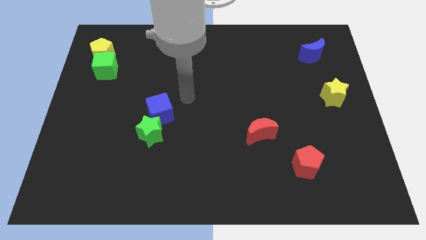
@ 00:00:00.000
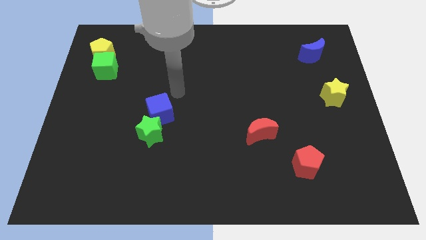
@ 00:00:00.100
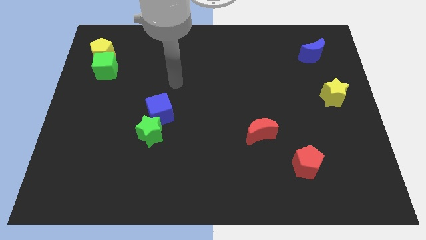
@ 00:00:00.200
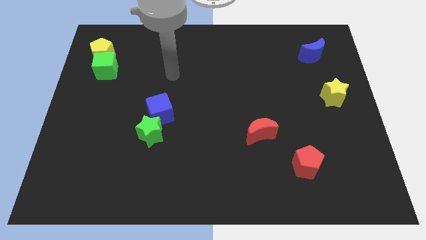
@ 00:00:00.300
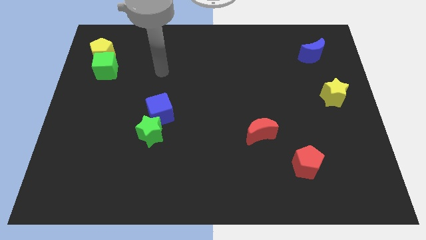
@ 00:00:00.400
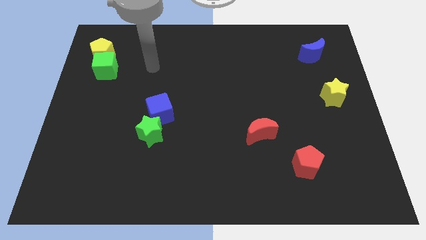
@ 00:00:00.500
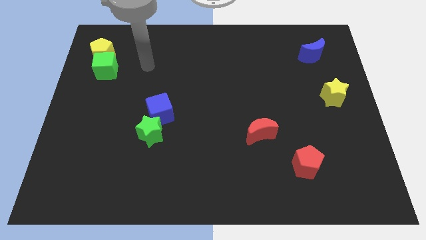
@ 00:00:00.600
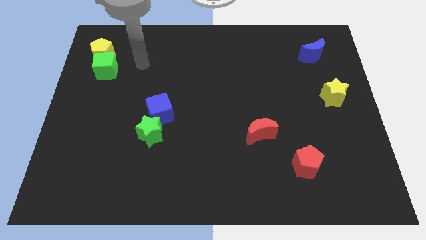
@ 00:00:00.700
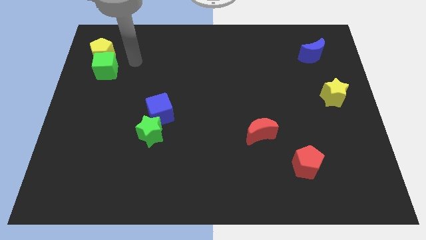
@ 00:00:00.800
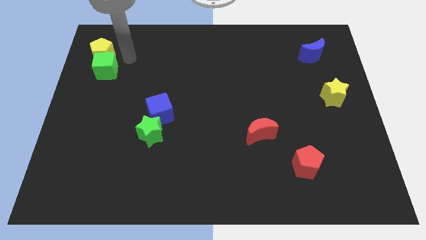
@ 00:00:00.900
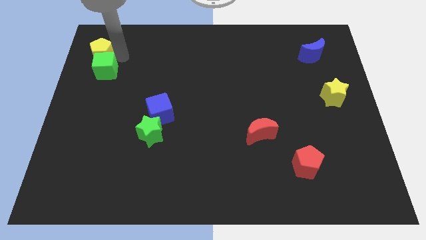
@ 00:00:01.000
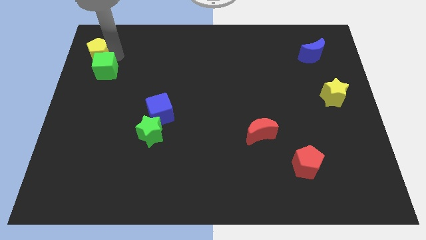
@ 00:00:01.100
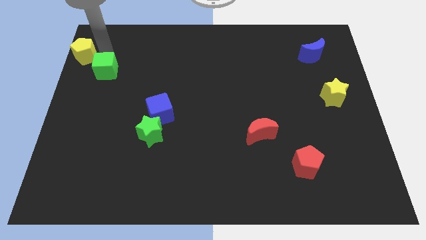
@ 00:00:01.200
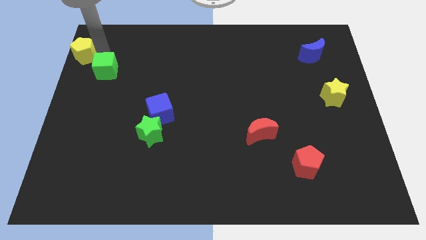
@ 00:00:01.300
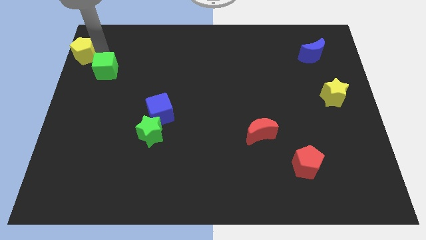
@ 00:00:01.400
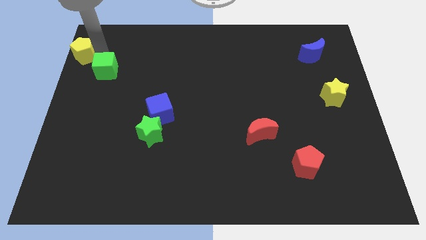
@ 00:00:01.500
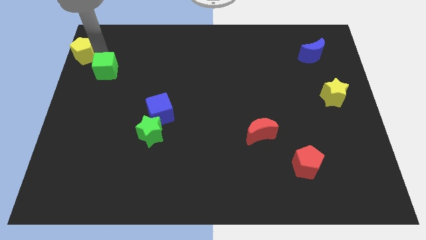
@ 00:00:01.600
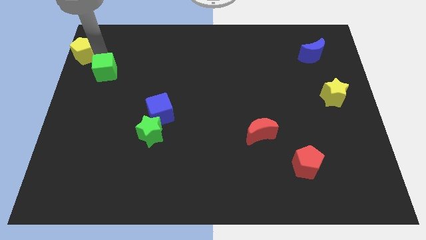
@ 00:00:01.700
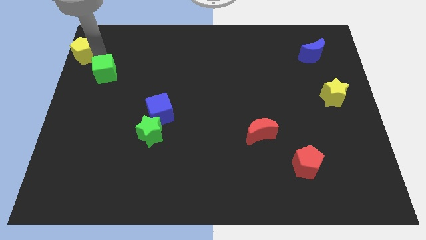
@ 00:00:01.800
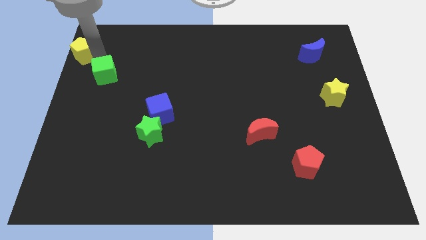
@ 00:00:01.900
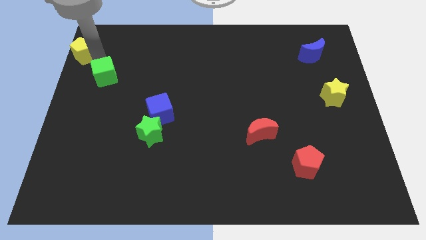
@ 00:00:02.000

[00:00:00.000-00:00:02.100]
move the green cube away from the yellow pentagon

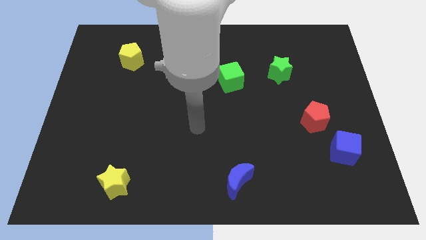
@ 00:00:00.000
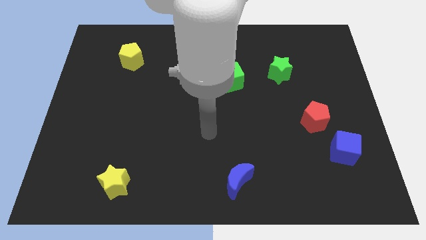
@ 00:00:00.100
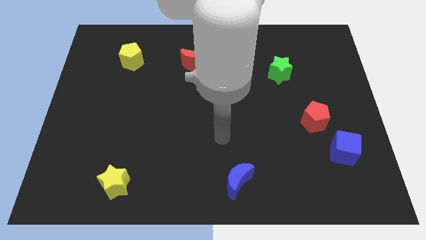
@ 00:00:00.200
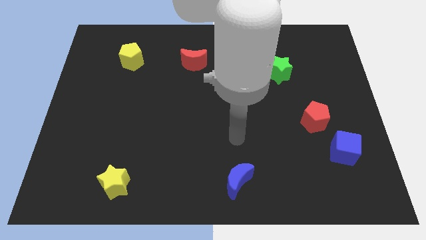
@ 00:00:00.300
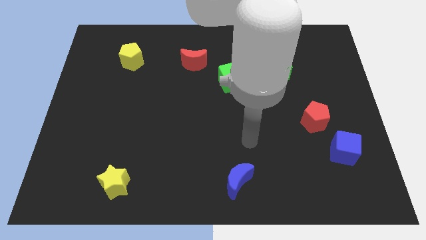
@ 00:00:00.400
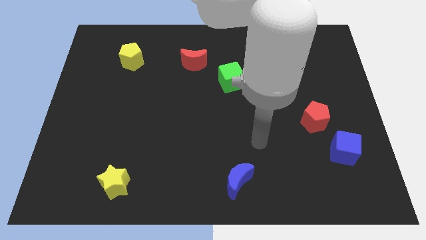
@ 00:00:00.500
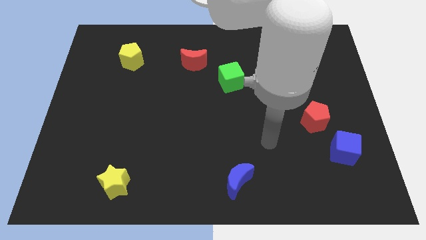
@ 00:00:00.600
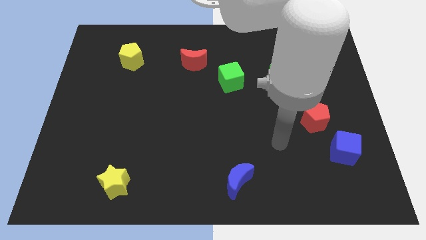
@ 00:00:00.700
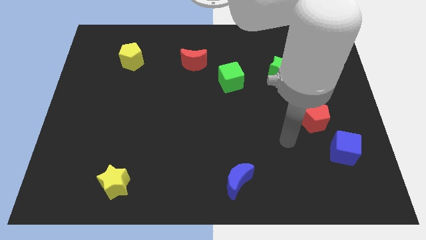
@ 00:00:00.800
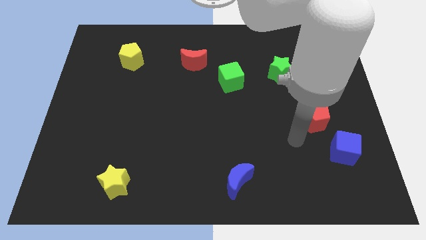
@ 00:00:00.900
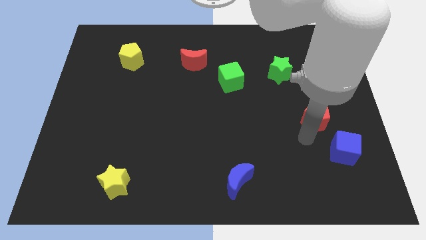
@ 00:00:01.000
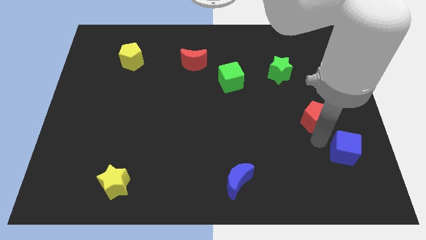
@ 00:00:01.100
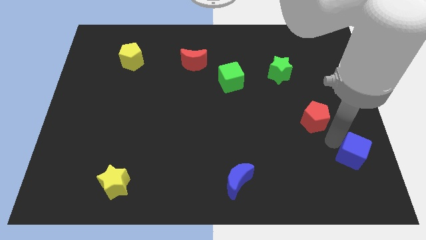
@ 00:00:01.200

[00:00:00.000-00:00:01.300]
move the red pentagon away from the blue cube

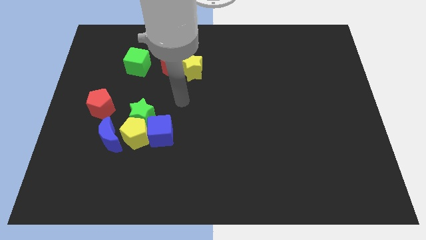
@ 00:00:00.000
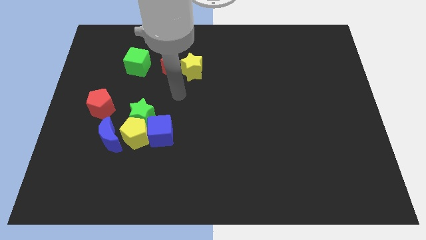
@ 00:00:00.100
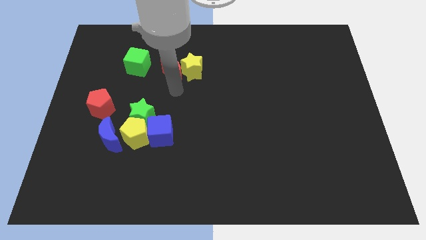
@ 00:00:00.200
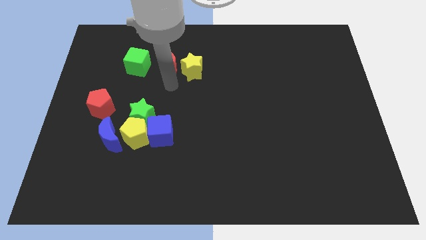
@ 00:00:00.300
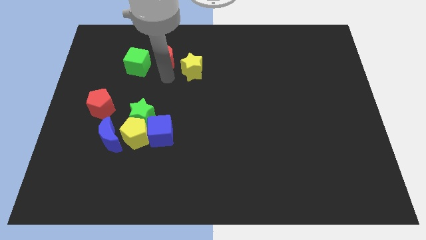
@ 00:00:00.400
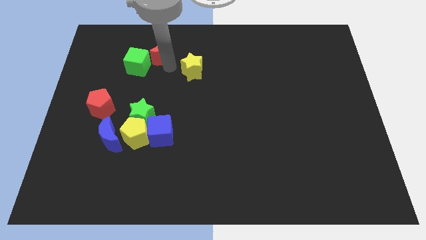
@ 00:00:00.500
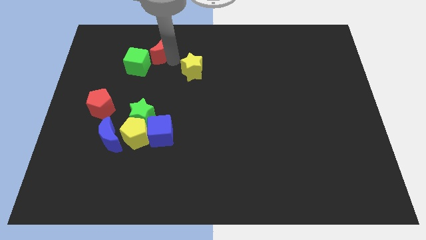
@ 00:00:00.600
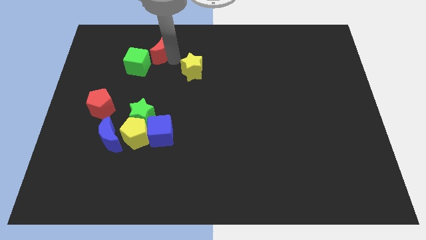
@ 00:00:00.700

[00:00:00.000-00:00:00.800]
separate the yellow star from the red moon

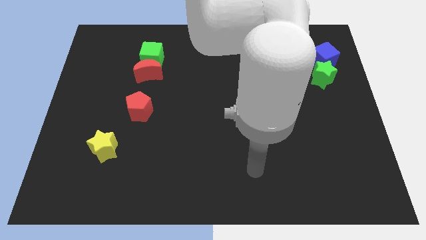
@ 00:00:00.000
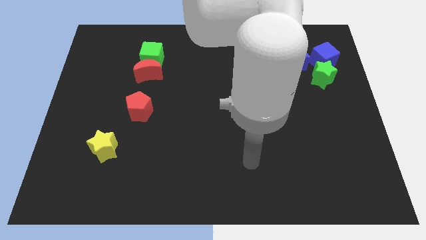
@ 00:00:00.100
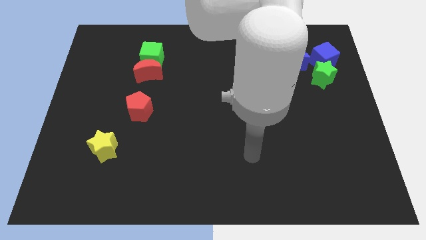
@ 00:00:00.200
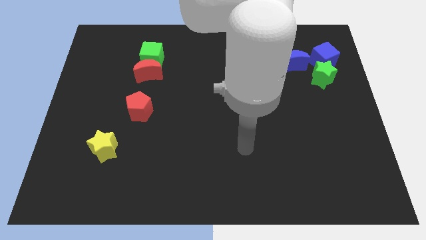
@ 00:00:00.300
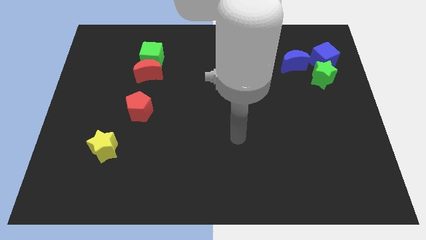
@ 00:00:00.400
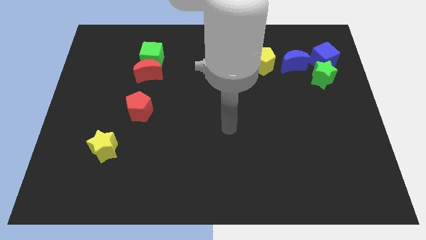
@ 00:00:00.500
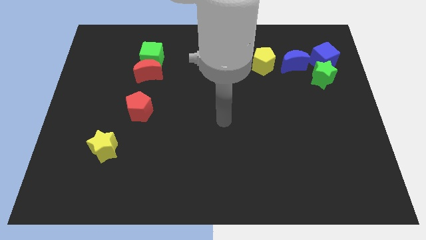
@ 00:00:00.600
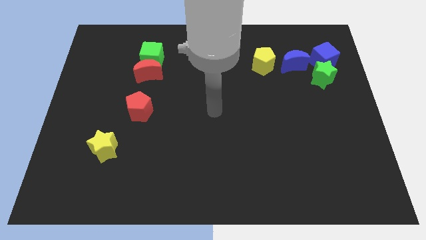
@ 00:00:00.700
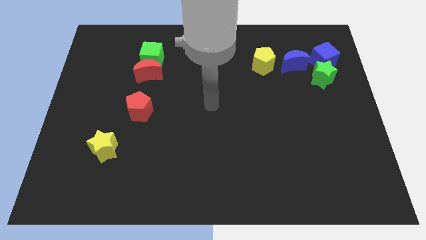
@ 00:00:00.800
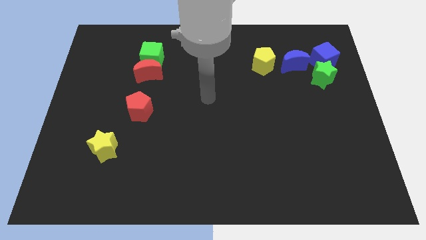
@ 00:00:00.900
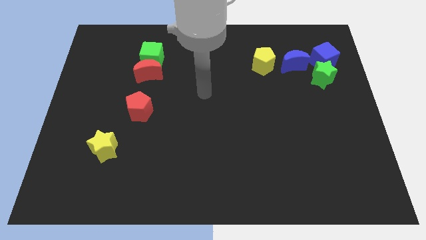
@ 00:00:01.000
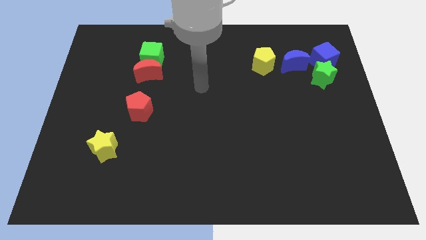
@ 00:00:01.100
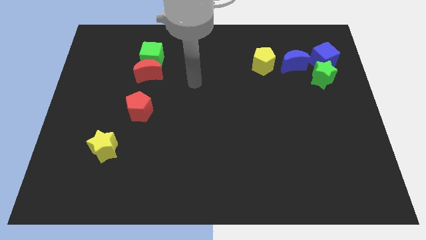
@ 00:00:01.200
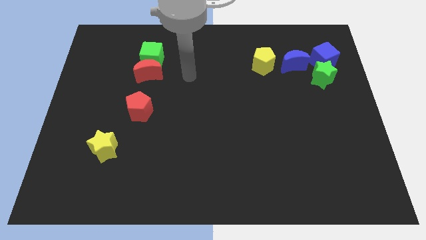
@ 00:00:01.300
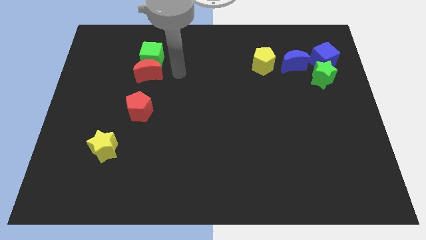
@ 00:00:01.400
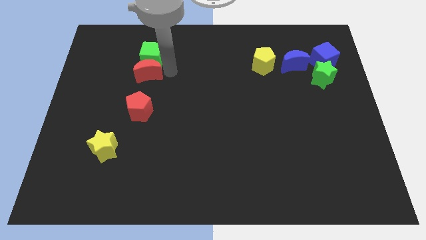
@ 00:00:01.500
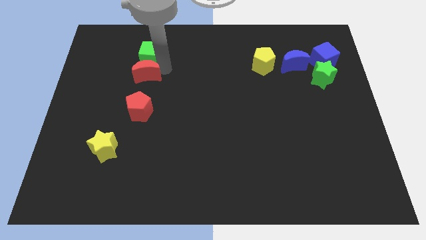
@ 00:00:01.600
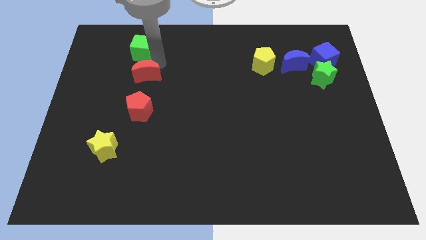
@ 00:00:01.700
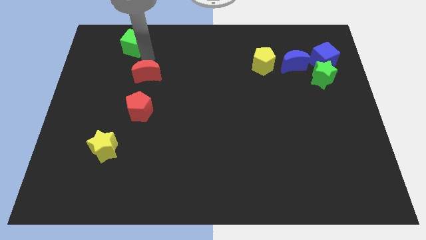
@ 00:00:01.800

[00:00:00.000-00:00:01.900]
pull the red moon apart from the green cube

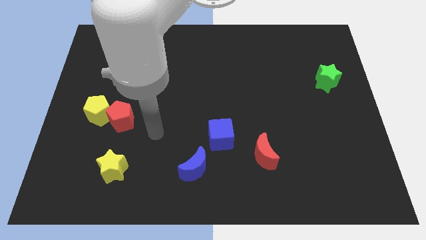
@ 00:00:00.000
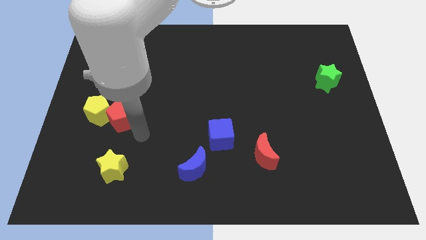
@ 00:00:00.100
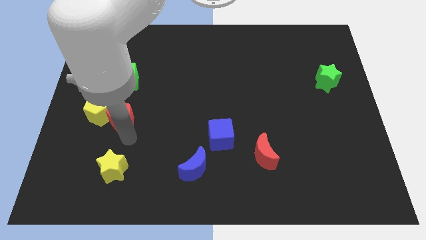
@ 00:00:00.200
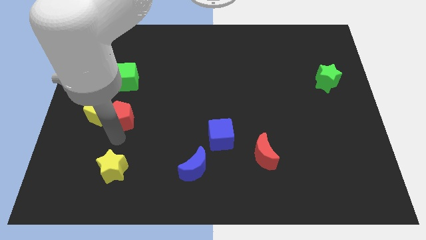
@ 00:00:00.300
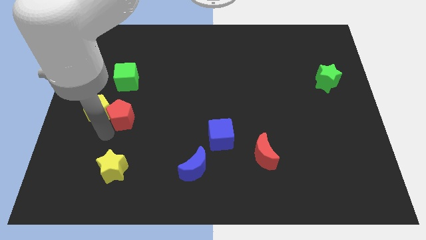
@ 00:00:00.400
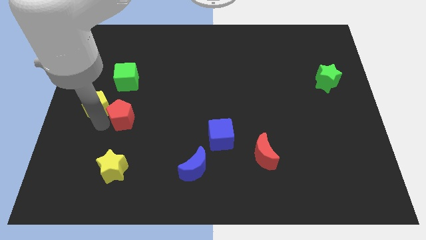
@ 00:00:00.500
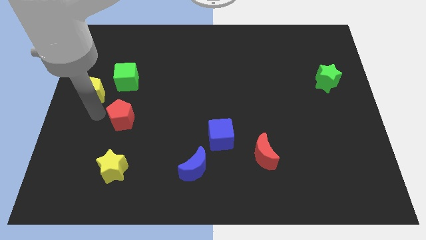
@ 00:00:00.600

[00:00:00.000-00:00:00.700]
pull the red pentagon apart from the yellow pentagon

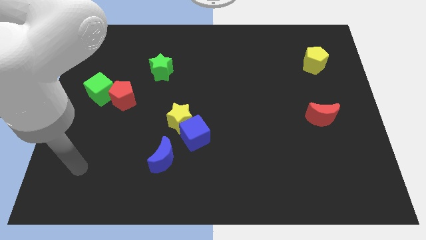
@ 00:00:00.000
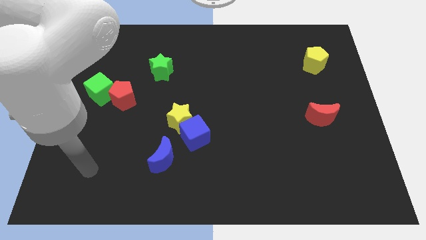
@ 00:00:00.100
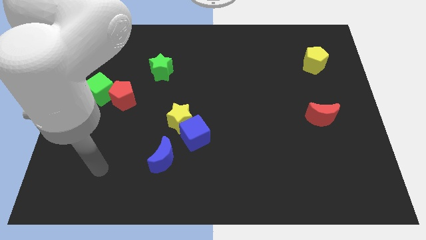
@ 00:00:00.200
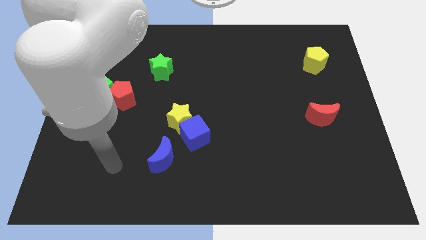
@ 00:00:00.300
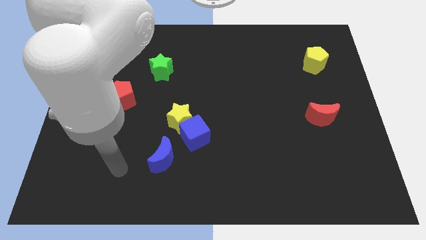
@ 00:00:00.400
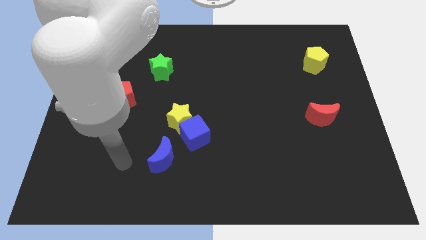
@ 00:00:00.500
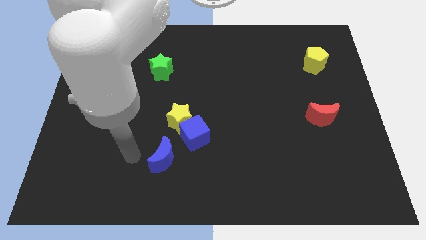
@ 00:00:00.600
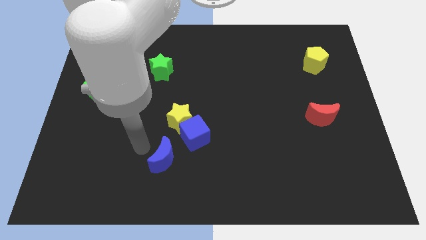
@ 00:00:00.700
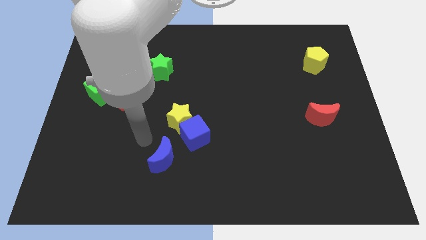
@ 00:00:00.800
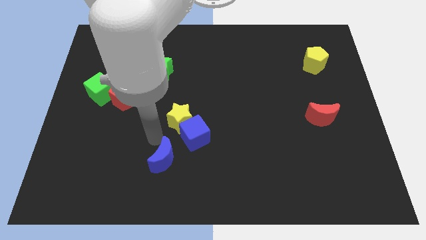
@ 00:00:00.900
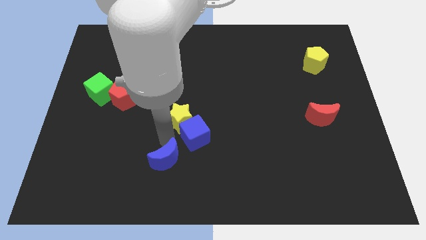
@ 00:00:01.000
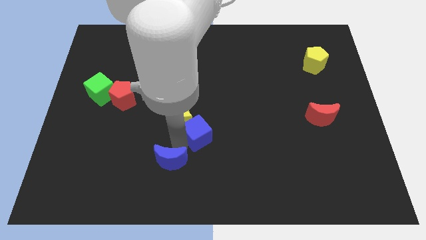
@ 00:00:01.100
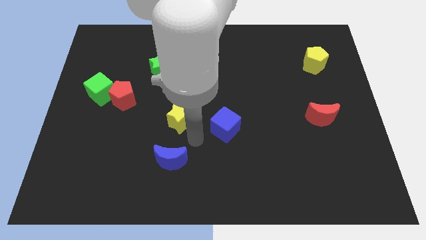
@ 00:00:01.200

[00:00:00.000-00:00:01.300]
move the yellow star away from the blue cube

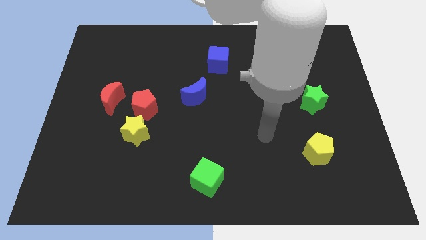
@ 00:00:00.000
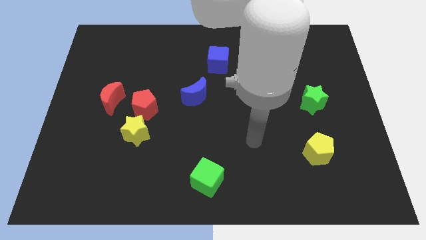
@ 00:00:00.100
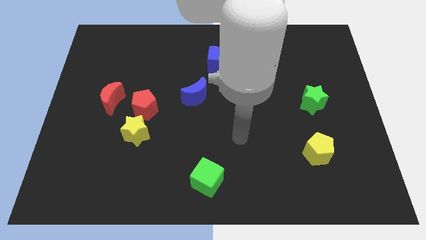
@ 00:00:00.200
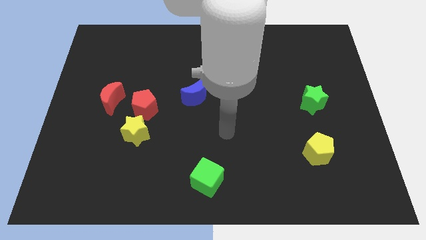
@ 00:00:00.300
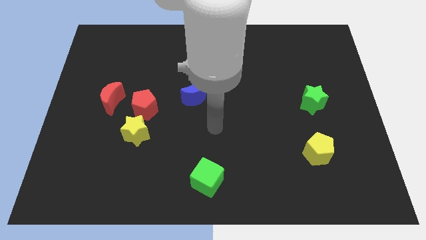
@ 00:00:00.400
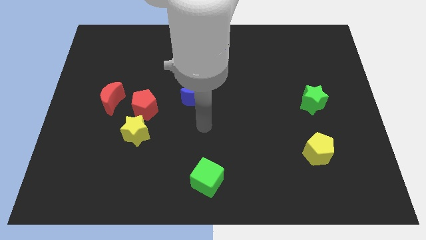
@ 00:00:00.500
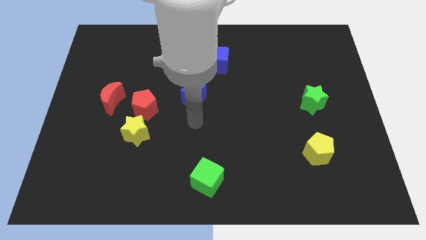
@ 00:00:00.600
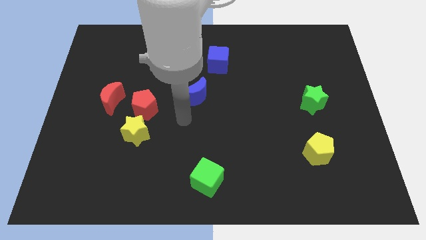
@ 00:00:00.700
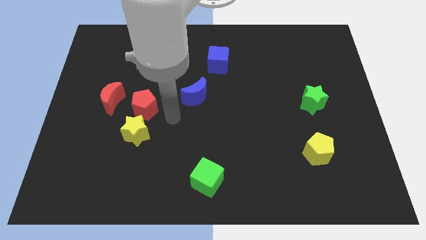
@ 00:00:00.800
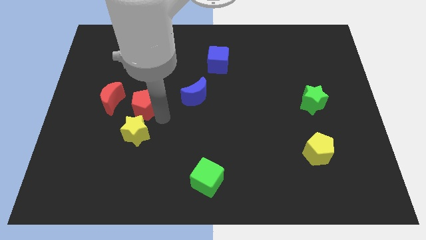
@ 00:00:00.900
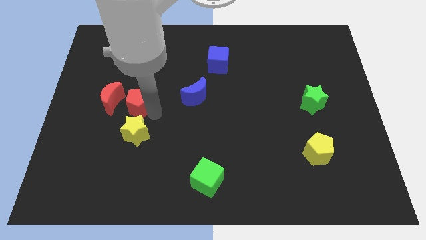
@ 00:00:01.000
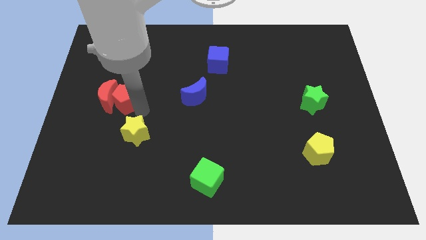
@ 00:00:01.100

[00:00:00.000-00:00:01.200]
move the yellow star away from the red pentagon
